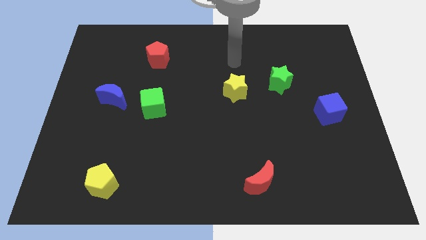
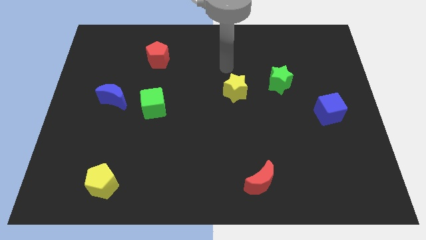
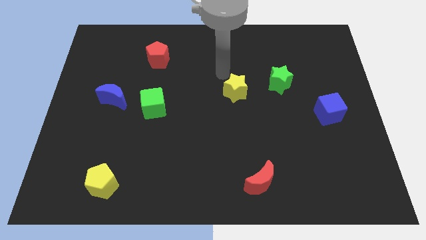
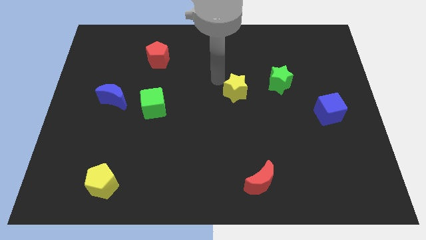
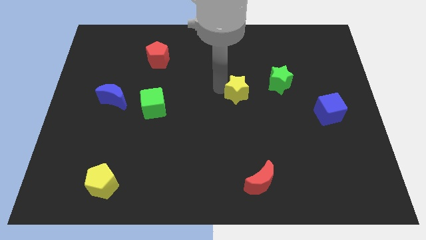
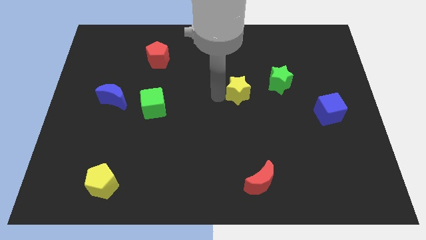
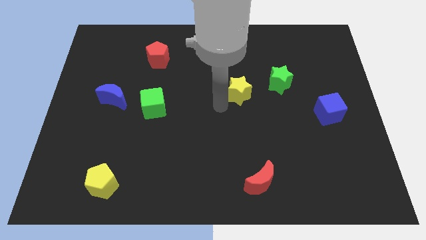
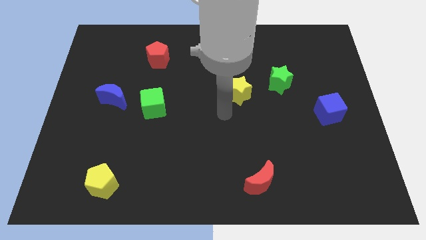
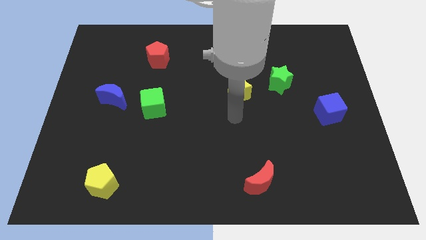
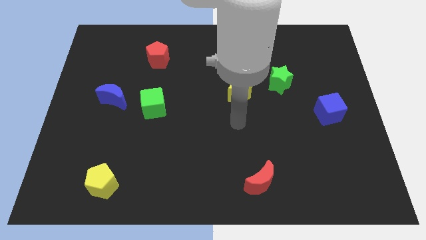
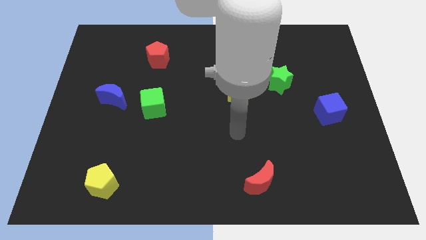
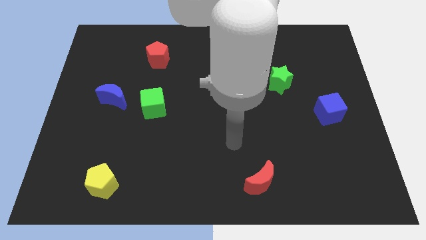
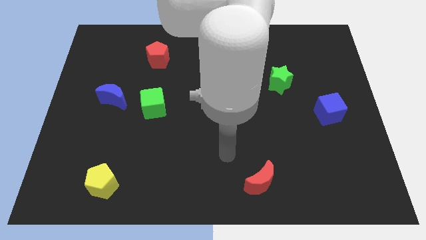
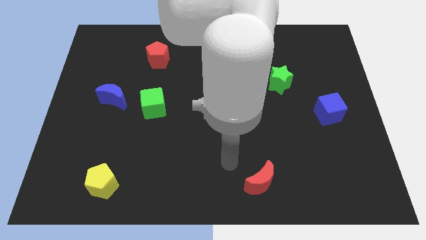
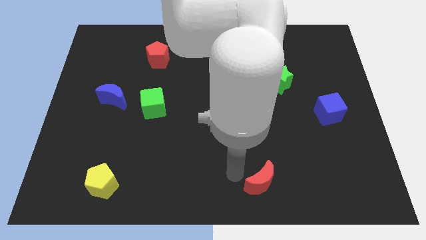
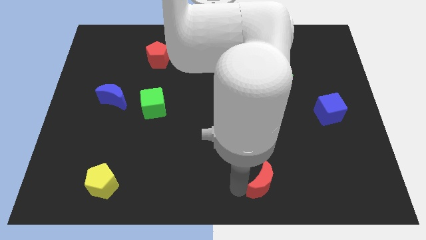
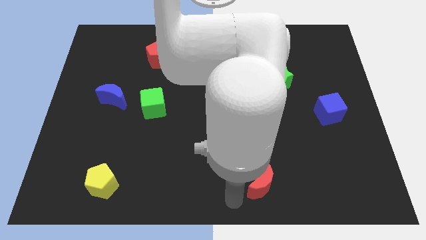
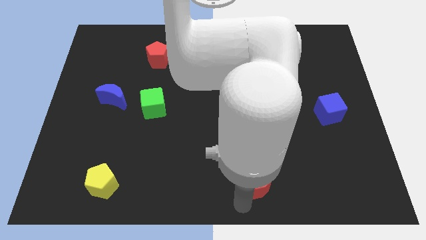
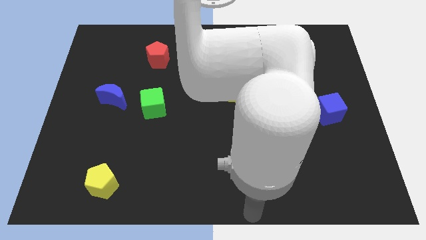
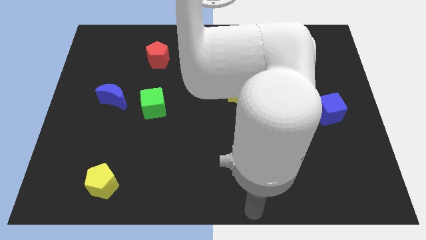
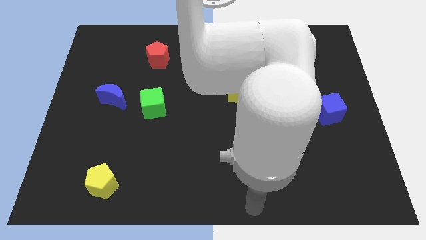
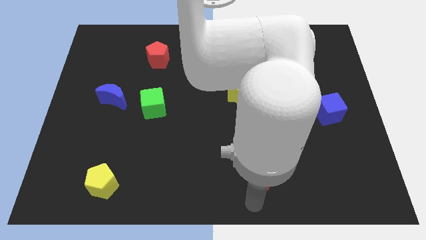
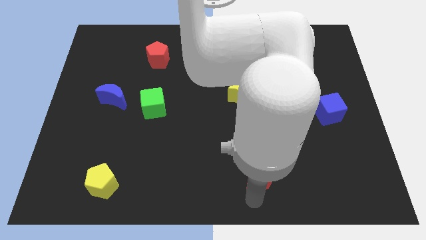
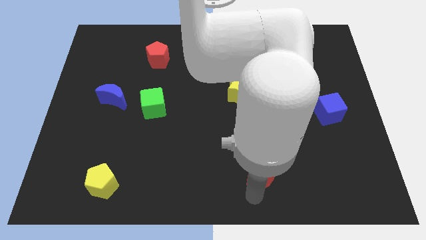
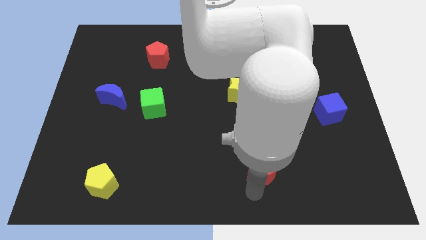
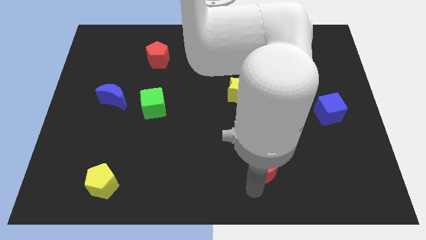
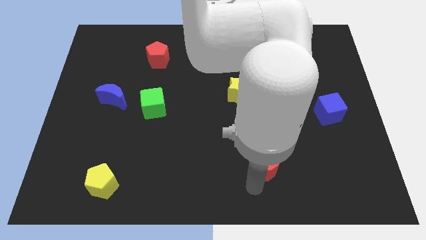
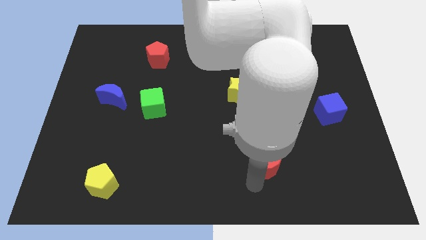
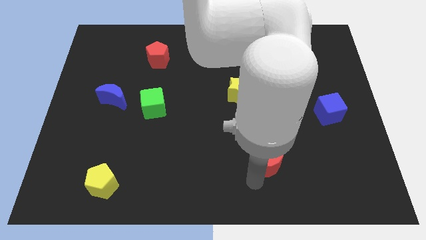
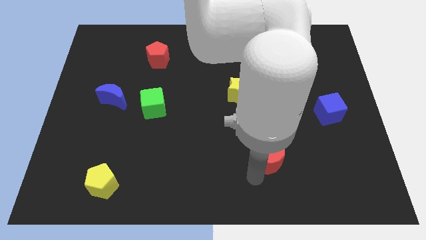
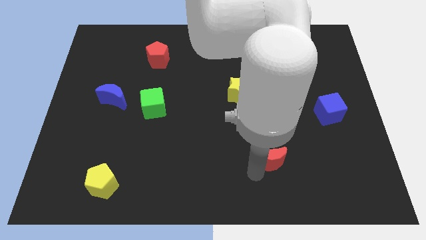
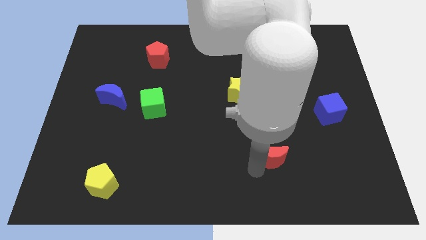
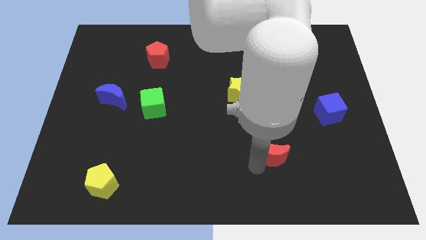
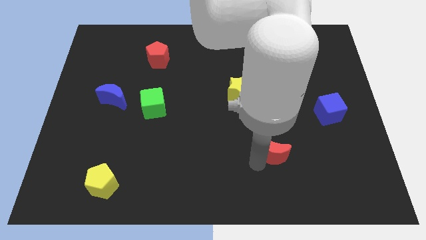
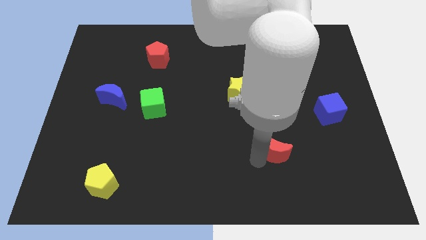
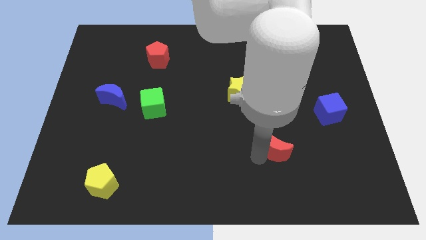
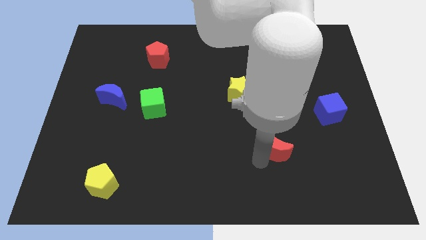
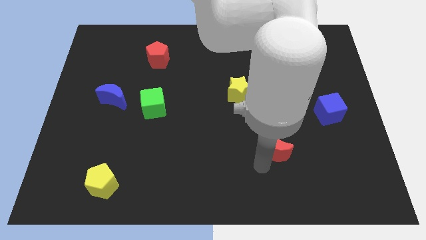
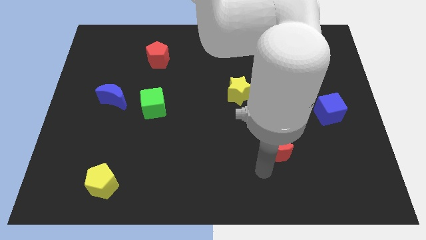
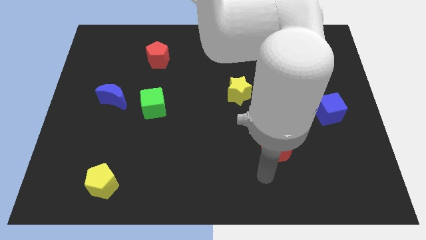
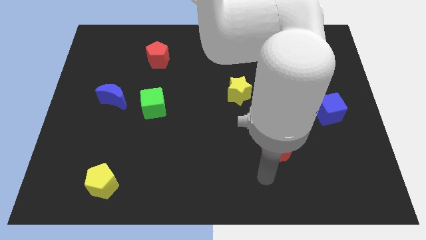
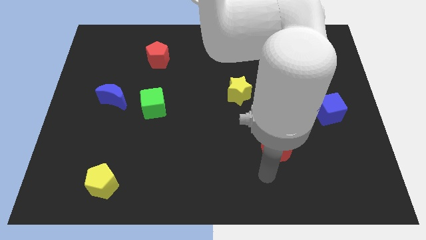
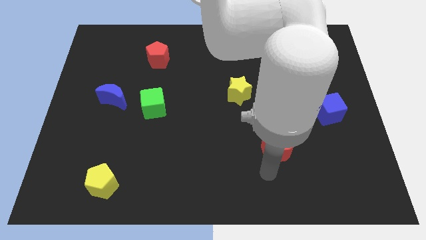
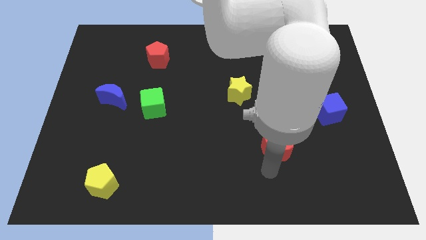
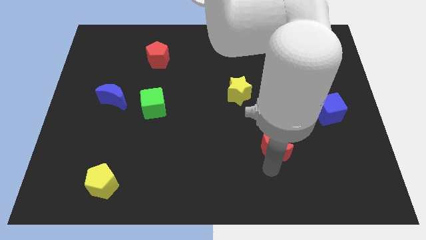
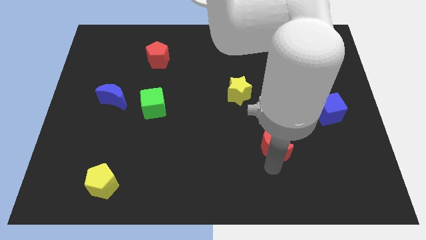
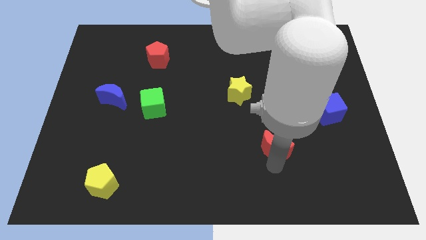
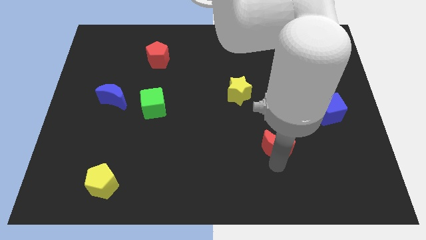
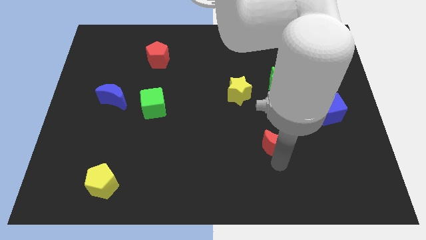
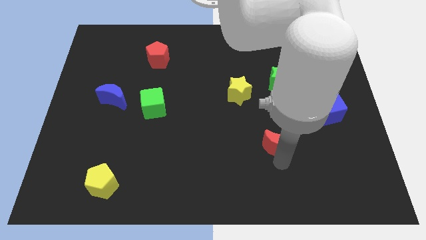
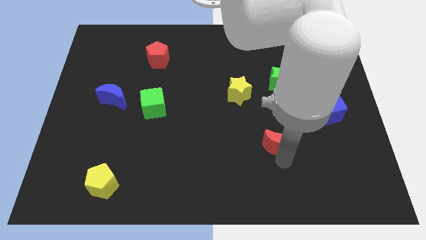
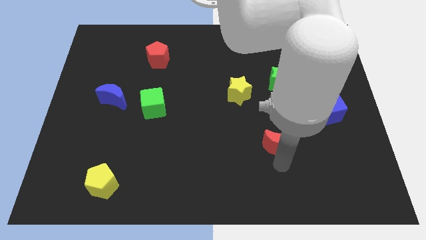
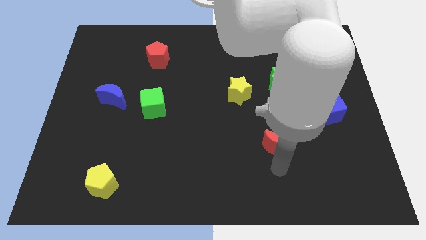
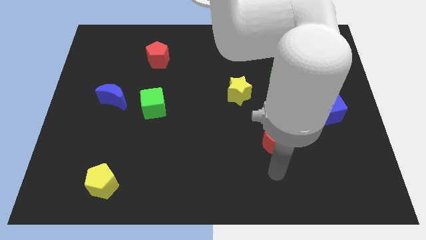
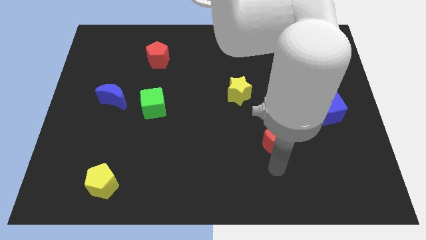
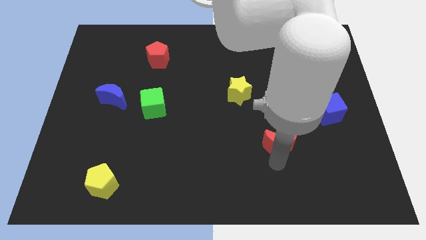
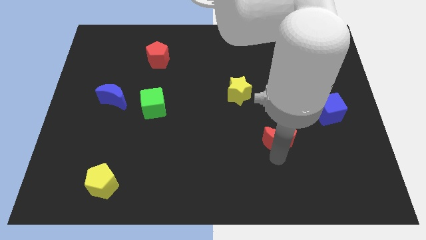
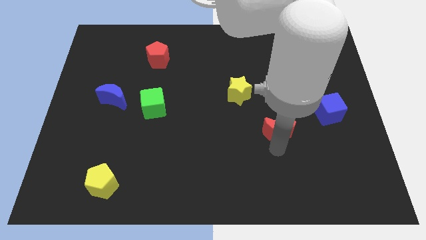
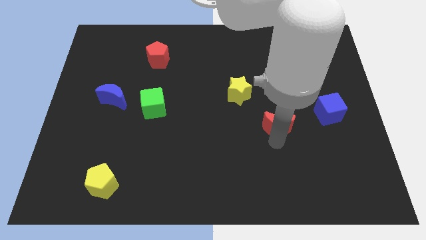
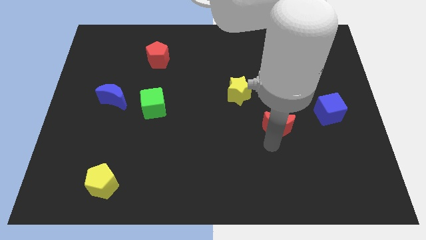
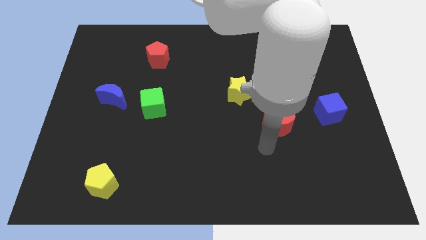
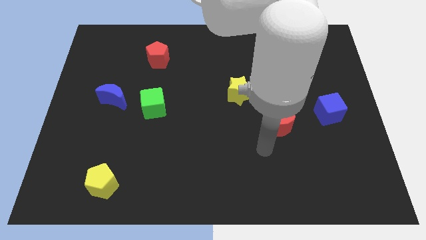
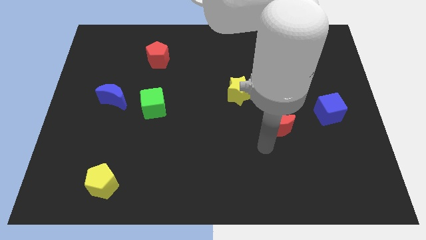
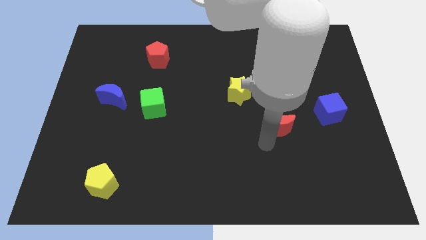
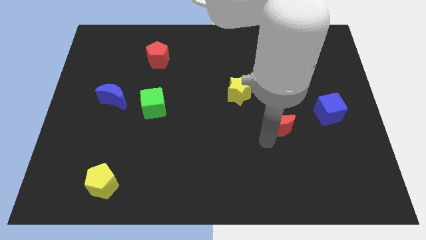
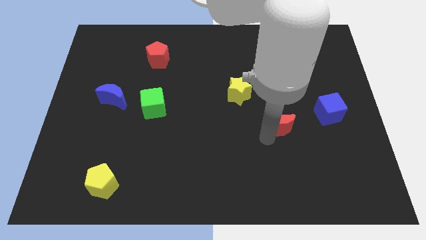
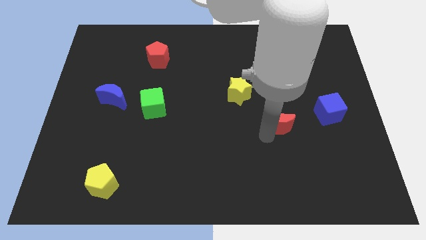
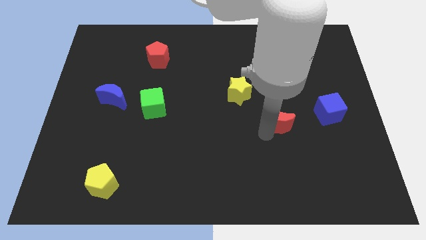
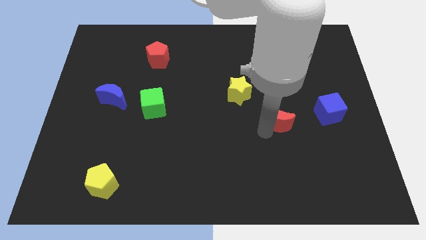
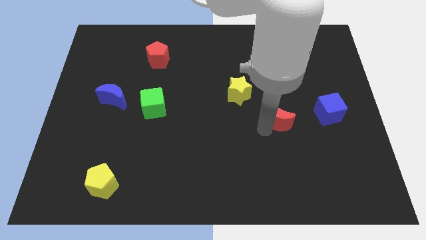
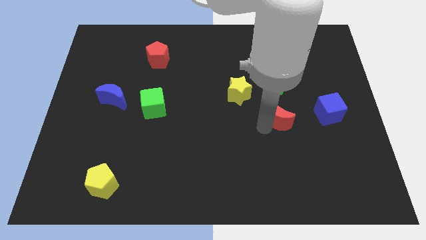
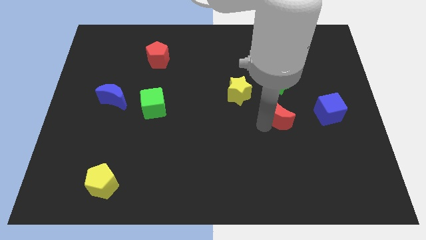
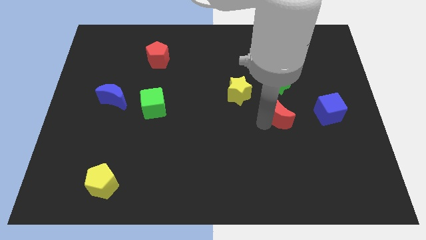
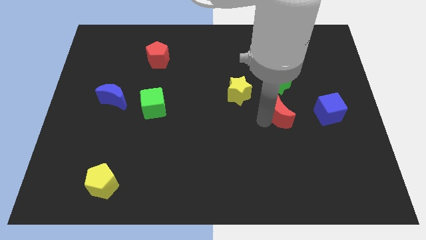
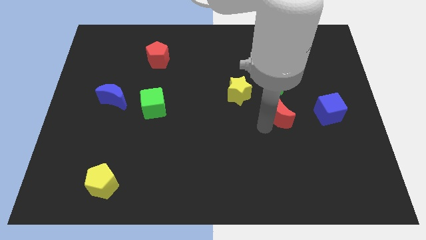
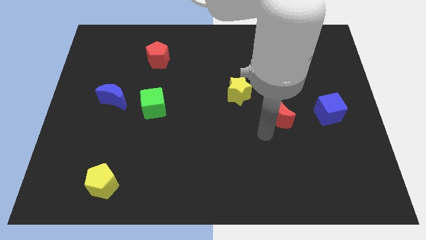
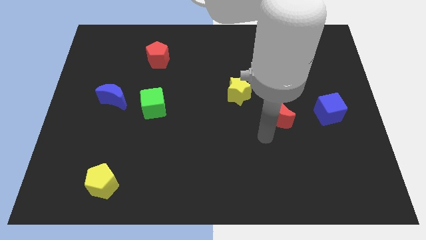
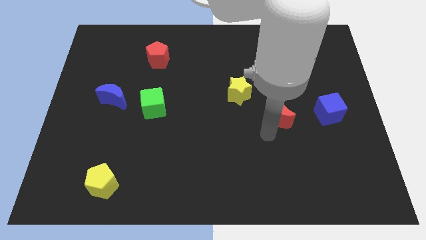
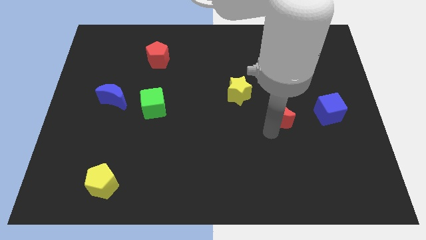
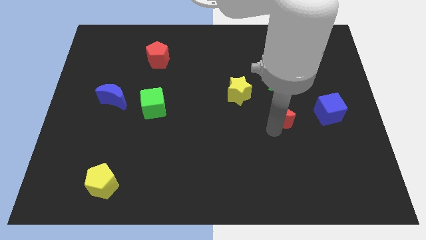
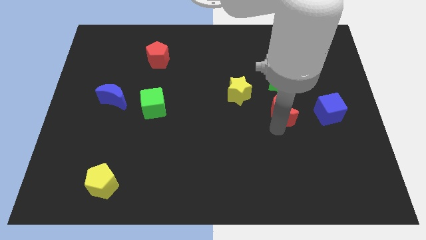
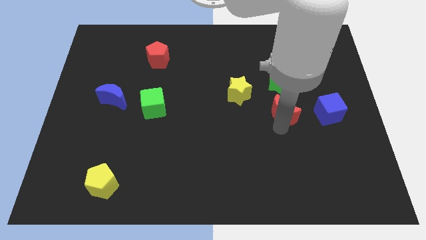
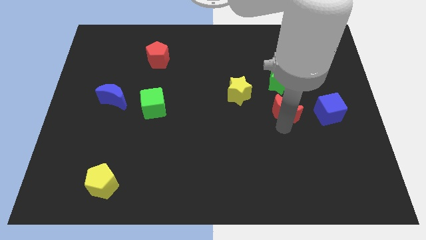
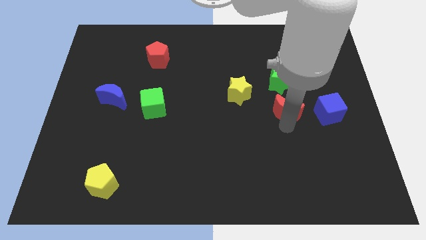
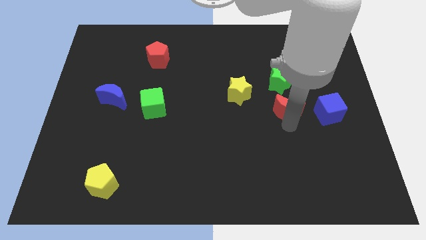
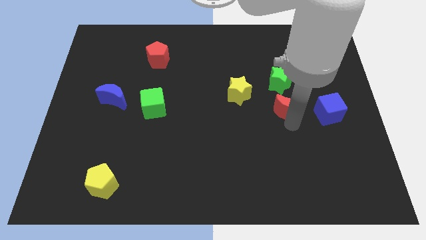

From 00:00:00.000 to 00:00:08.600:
move the red moon just right of the yellow star
